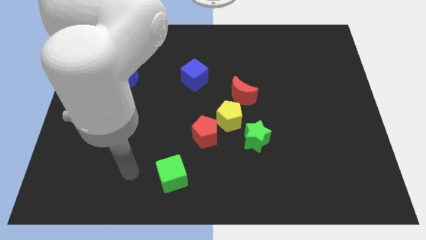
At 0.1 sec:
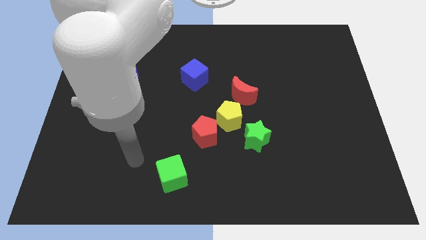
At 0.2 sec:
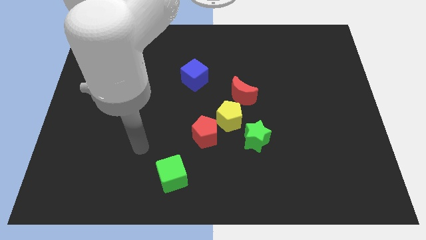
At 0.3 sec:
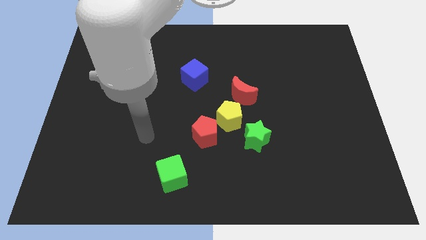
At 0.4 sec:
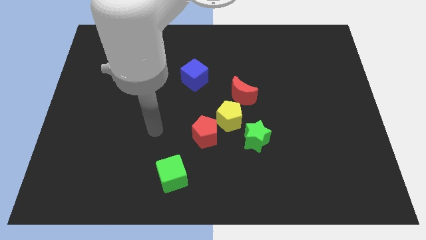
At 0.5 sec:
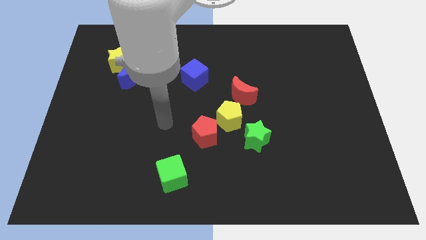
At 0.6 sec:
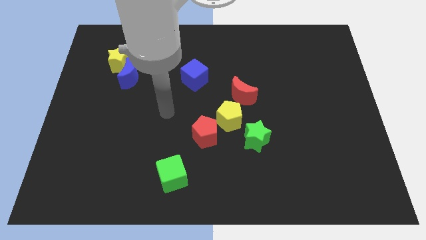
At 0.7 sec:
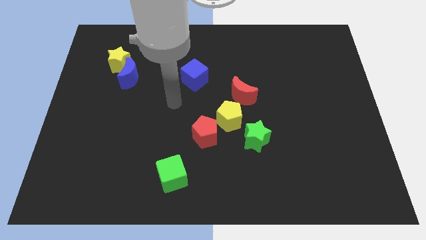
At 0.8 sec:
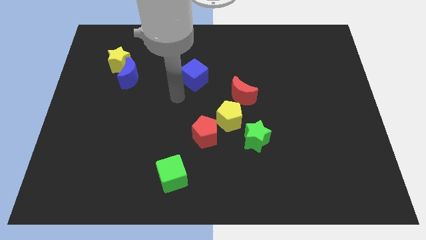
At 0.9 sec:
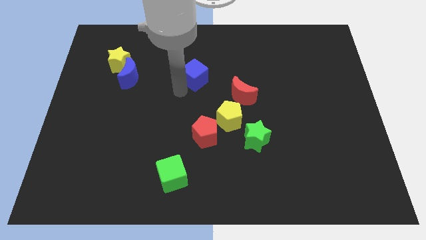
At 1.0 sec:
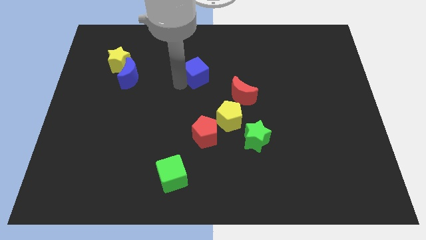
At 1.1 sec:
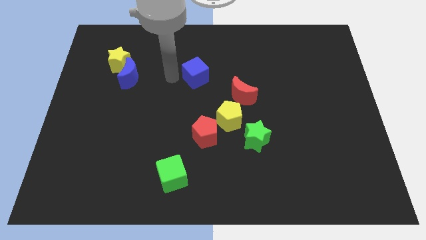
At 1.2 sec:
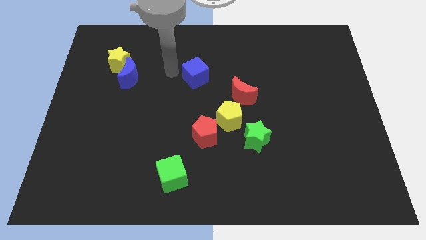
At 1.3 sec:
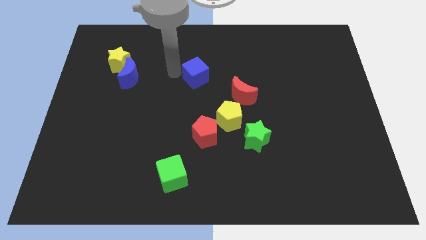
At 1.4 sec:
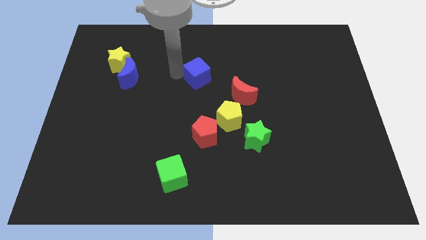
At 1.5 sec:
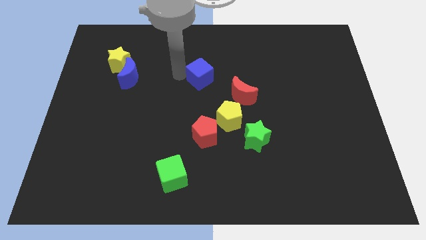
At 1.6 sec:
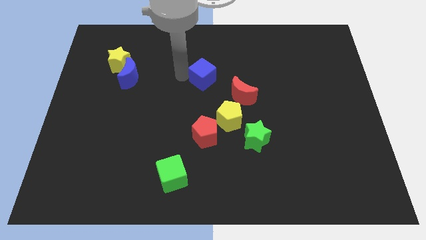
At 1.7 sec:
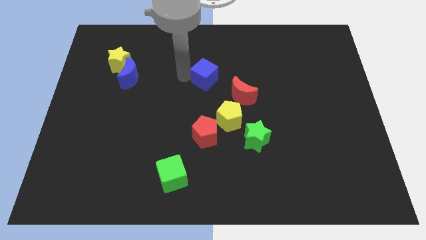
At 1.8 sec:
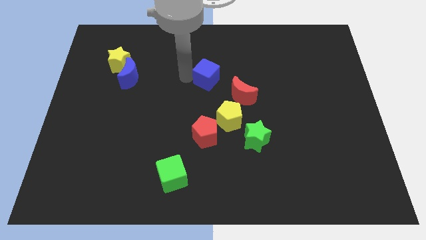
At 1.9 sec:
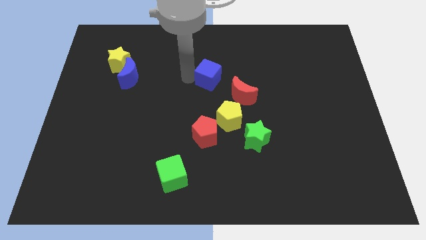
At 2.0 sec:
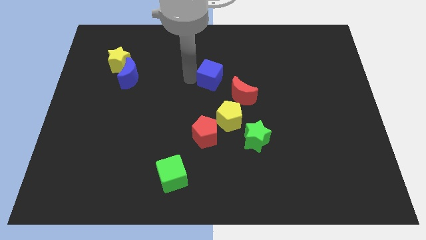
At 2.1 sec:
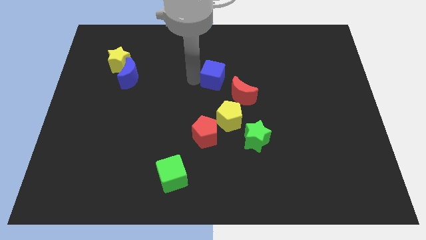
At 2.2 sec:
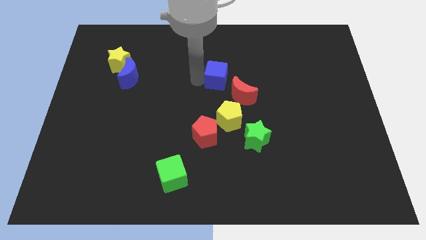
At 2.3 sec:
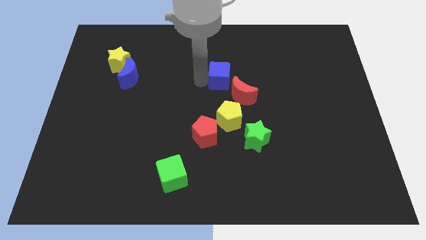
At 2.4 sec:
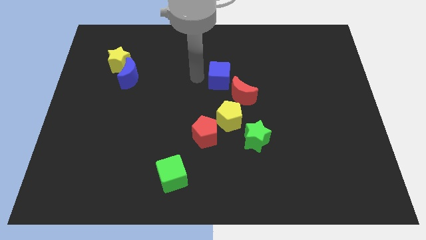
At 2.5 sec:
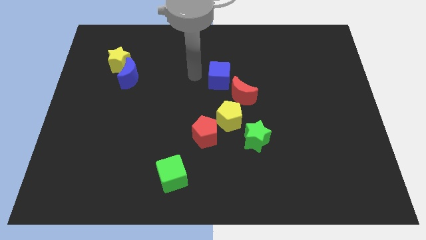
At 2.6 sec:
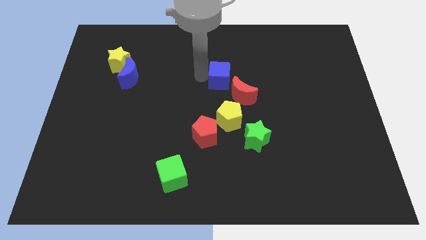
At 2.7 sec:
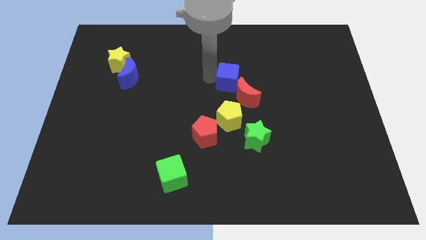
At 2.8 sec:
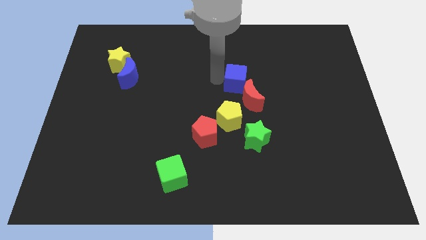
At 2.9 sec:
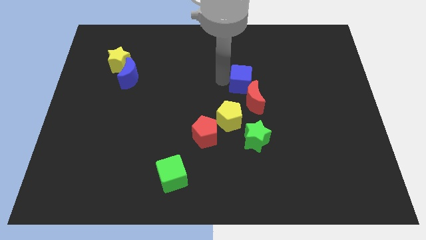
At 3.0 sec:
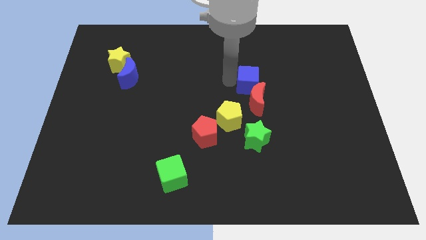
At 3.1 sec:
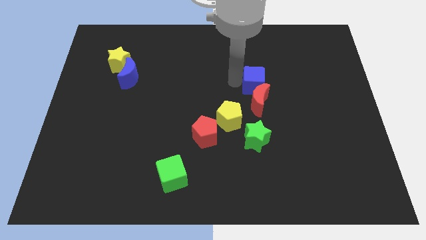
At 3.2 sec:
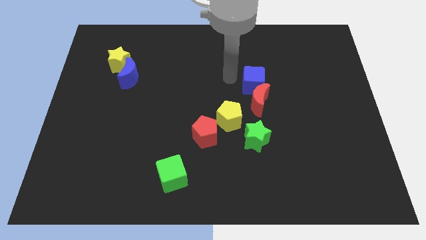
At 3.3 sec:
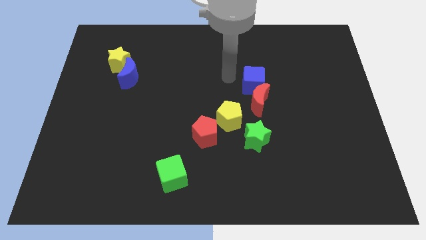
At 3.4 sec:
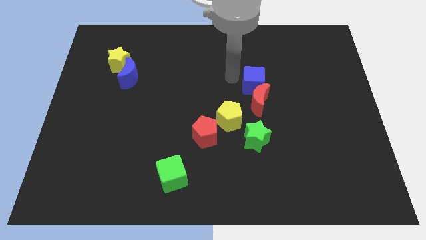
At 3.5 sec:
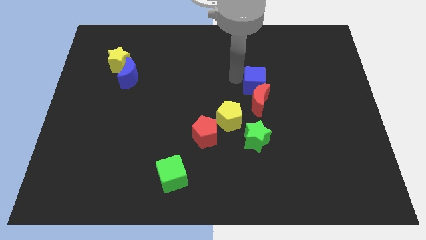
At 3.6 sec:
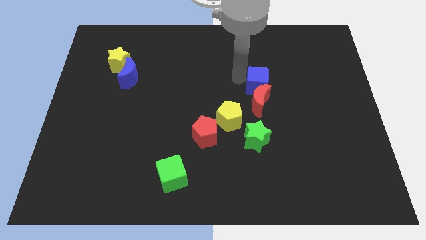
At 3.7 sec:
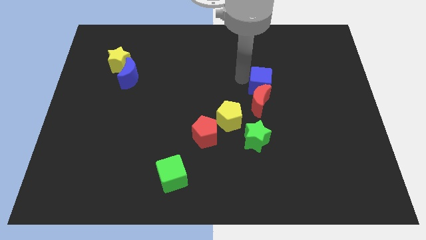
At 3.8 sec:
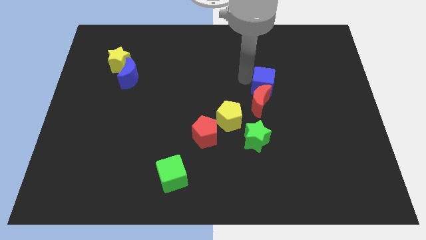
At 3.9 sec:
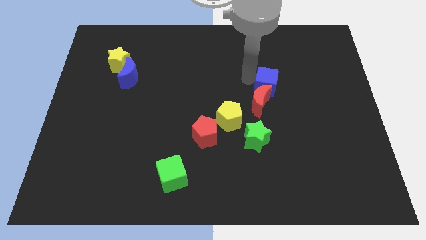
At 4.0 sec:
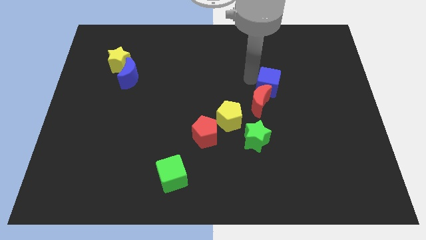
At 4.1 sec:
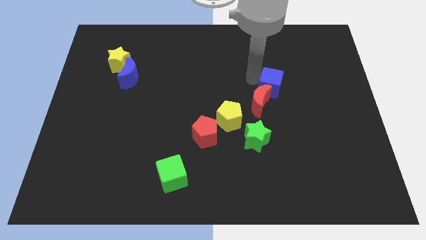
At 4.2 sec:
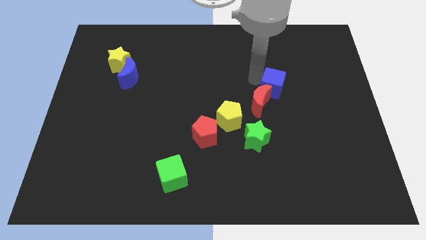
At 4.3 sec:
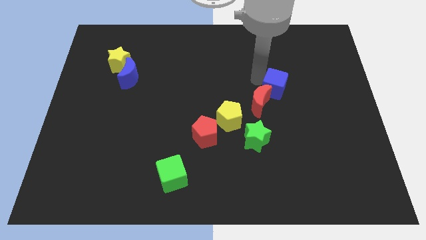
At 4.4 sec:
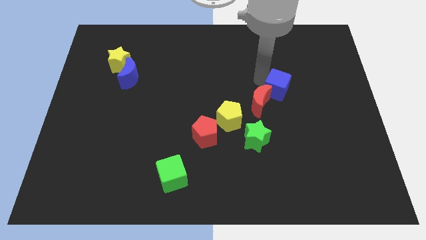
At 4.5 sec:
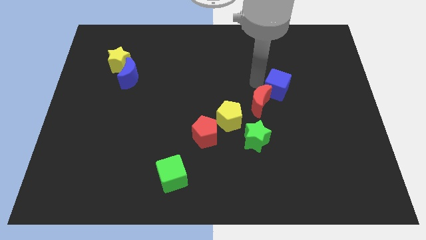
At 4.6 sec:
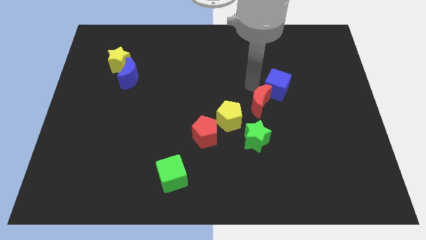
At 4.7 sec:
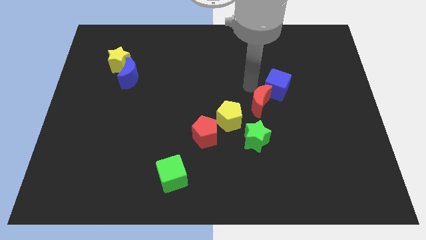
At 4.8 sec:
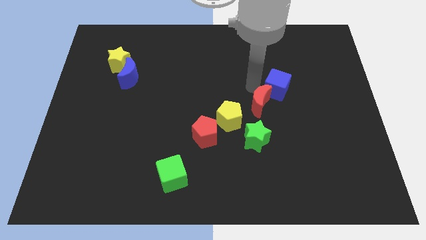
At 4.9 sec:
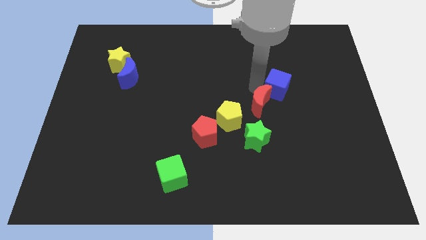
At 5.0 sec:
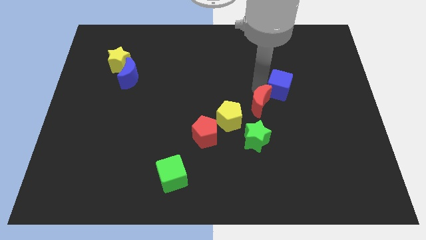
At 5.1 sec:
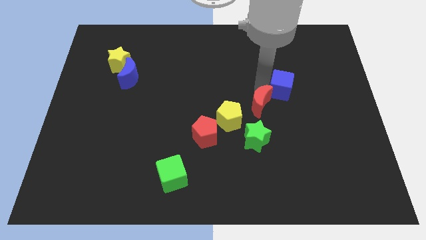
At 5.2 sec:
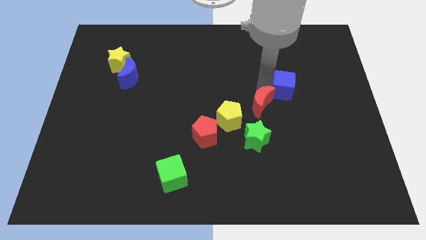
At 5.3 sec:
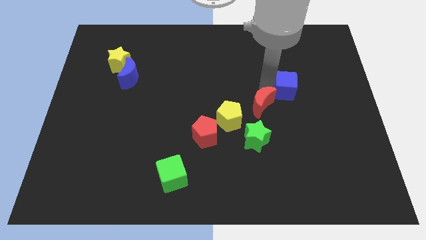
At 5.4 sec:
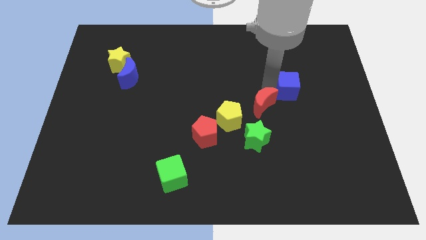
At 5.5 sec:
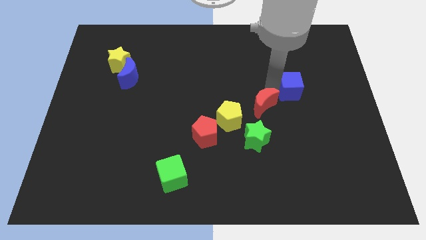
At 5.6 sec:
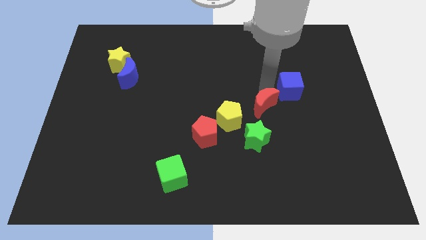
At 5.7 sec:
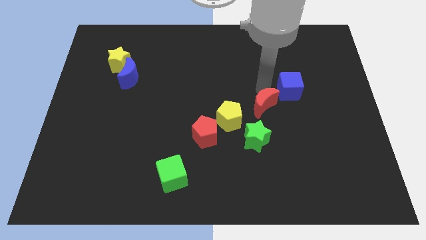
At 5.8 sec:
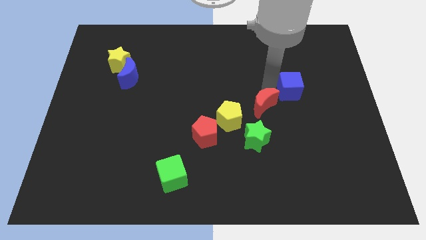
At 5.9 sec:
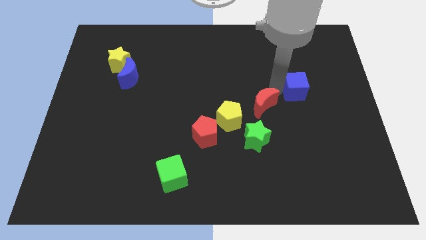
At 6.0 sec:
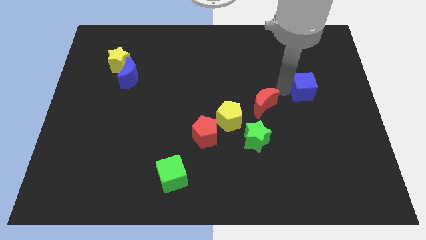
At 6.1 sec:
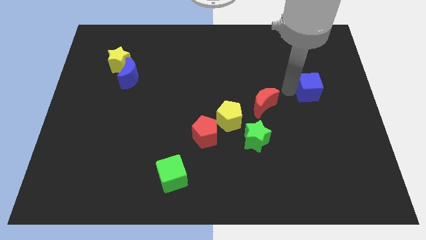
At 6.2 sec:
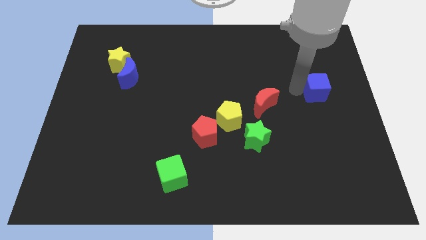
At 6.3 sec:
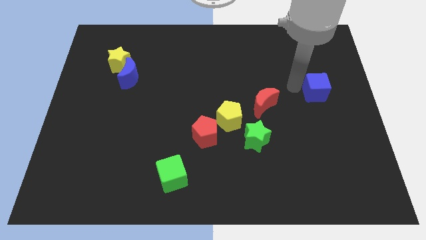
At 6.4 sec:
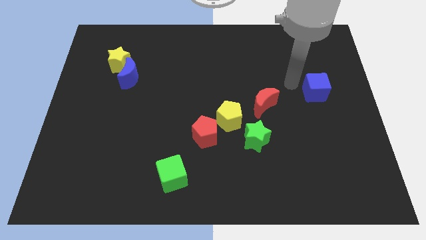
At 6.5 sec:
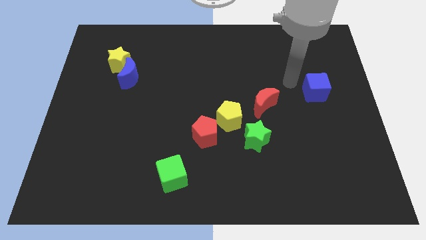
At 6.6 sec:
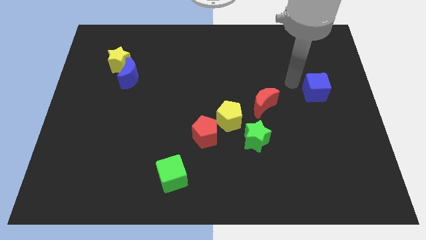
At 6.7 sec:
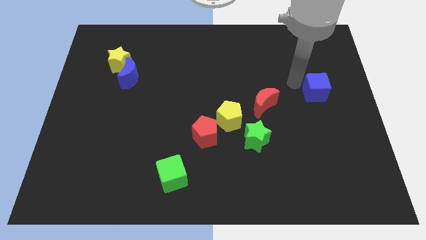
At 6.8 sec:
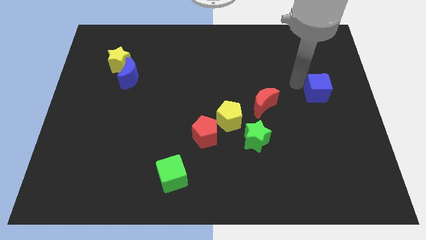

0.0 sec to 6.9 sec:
move the blue cube to the right side of the board

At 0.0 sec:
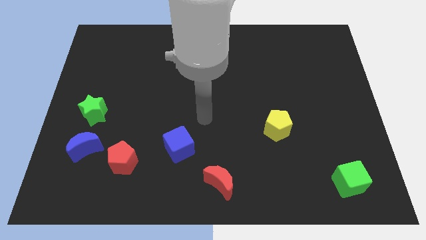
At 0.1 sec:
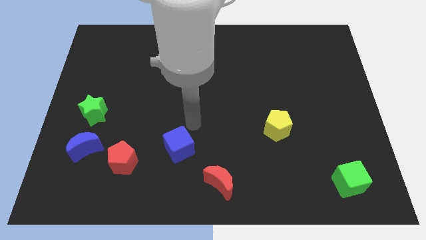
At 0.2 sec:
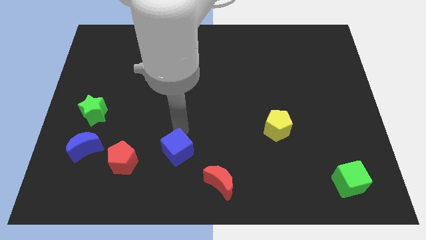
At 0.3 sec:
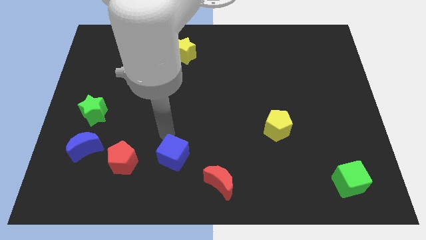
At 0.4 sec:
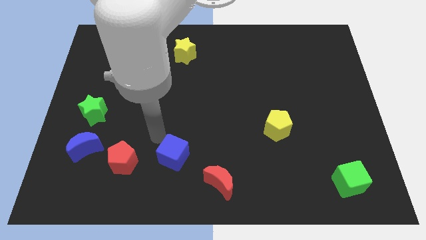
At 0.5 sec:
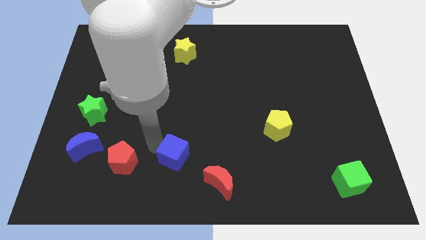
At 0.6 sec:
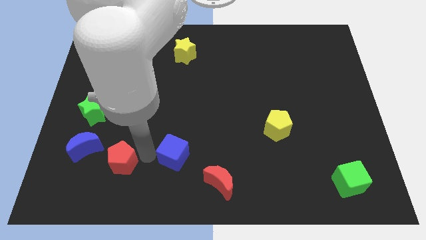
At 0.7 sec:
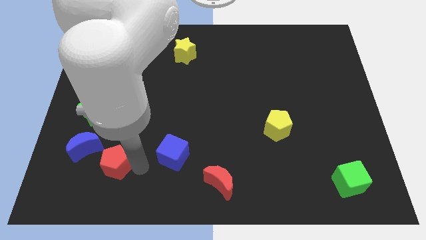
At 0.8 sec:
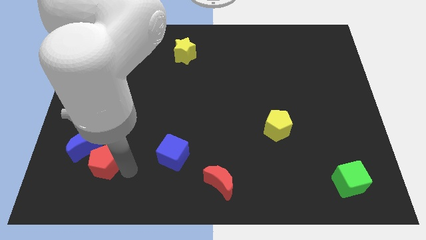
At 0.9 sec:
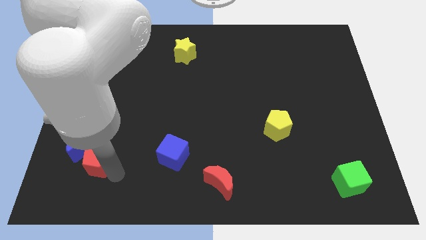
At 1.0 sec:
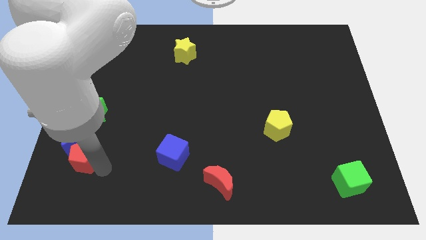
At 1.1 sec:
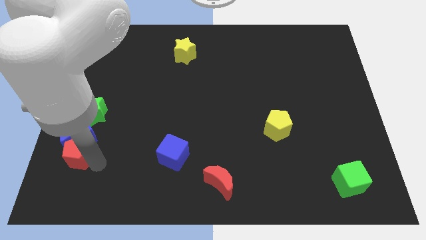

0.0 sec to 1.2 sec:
put the blue moon to the center left
